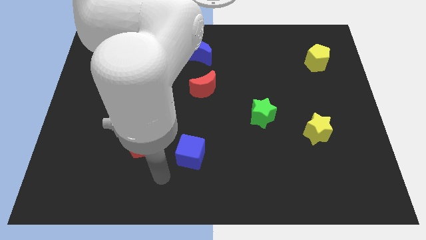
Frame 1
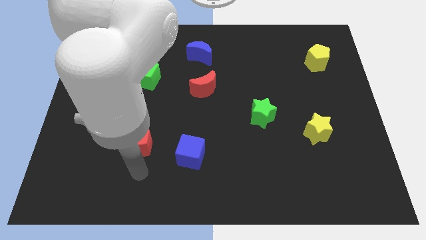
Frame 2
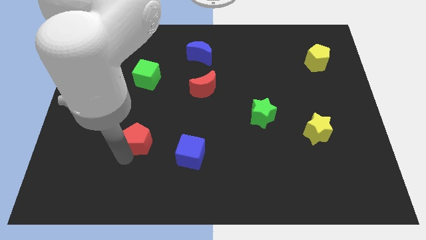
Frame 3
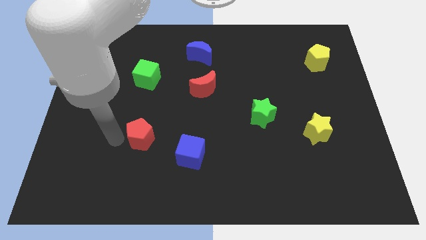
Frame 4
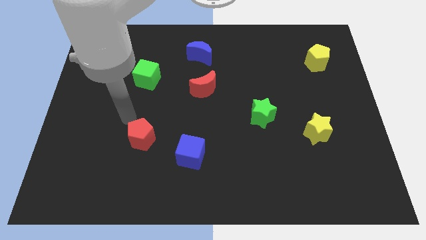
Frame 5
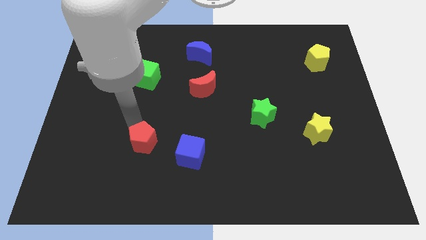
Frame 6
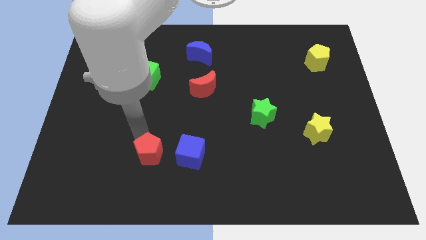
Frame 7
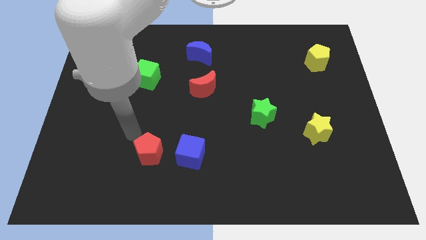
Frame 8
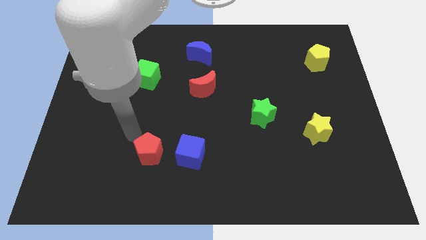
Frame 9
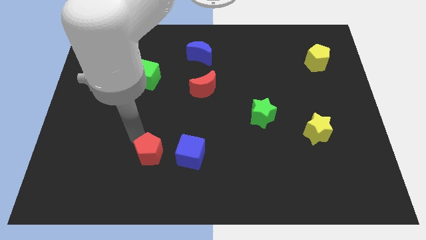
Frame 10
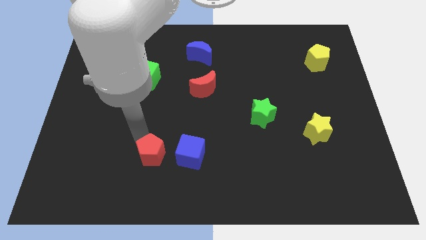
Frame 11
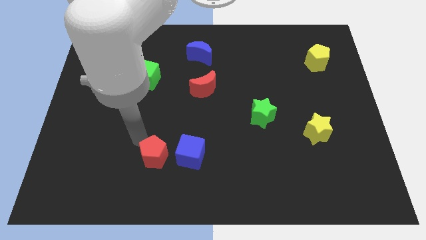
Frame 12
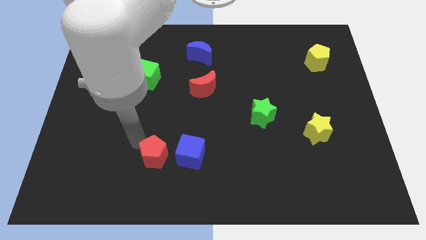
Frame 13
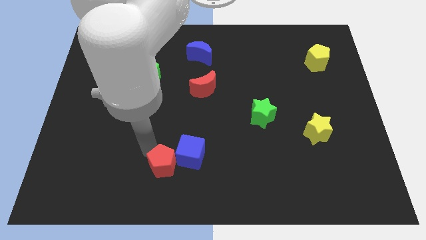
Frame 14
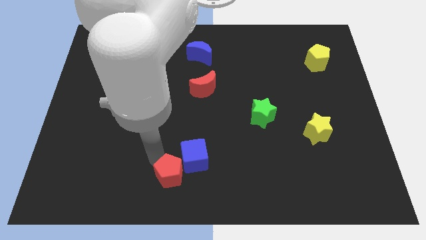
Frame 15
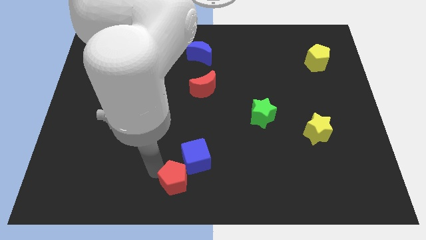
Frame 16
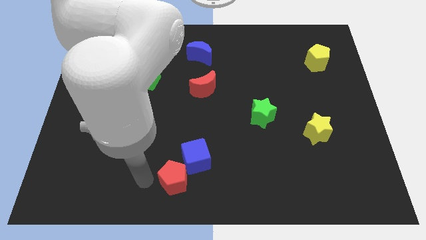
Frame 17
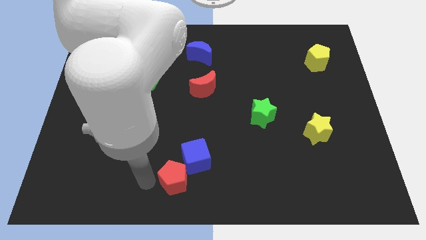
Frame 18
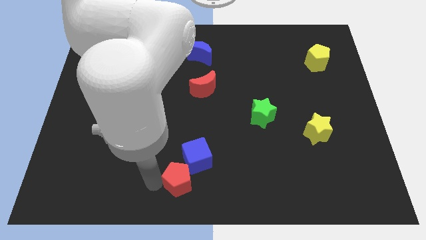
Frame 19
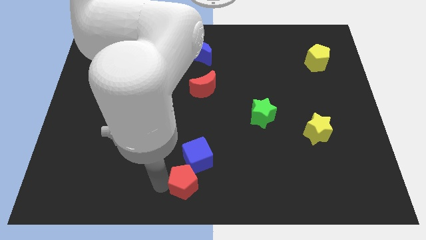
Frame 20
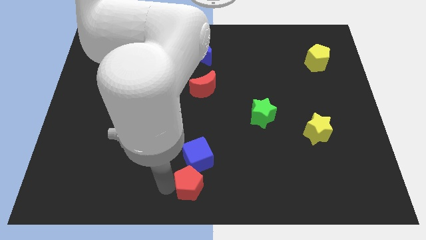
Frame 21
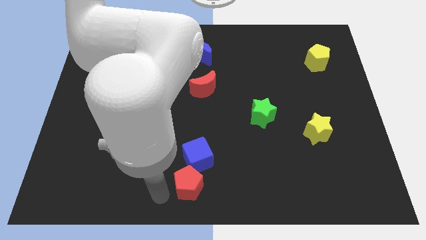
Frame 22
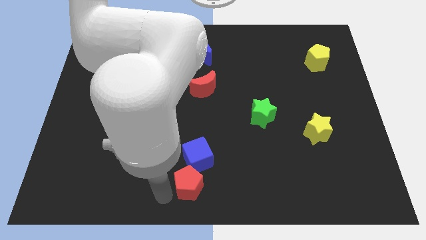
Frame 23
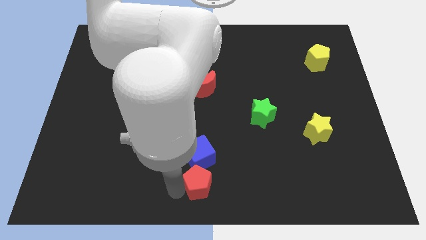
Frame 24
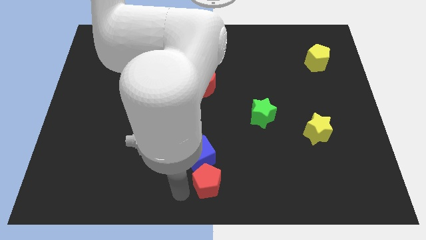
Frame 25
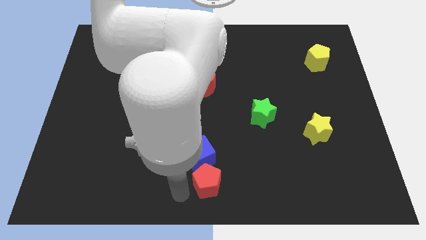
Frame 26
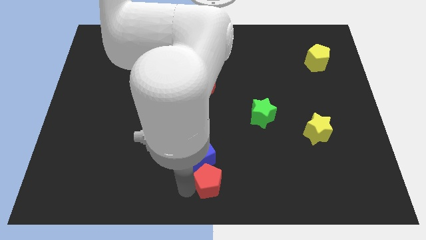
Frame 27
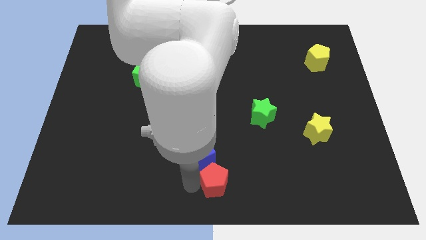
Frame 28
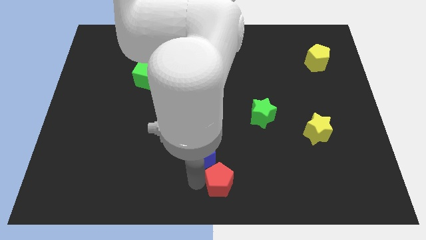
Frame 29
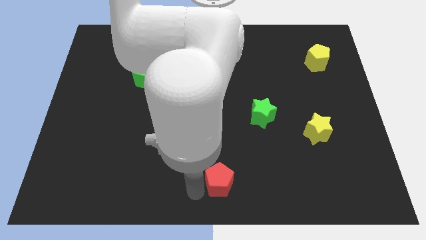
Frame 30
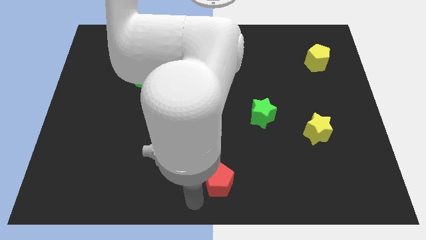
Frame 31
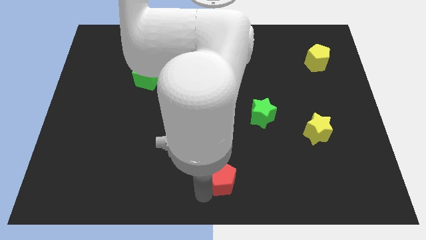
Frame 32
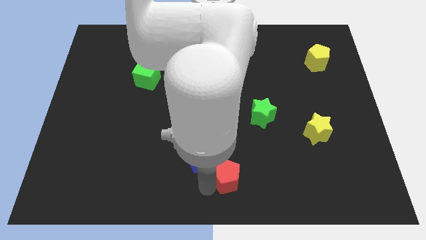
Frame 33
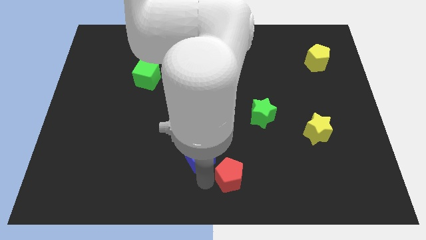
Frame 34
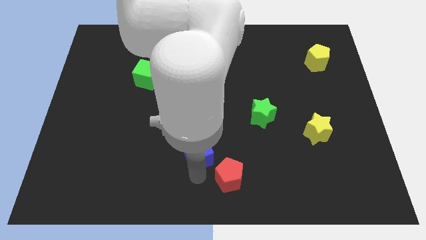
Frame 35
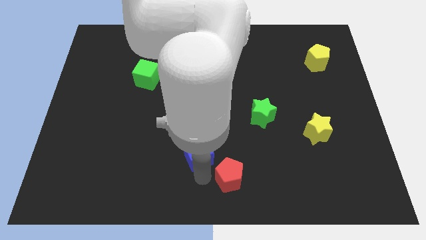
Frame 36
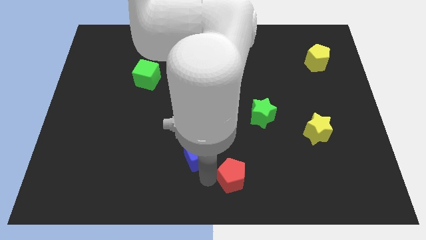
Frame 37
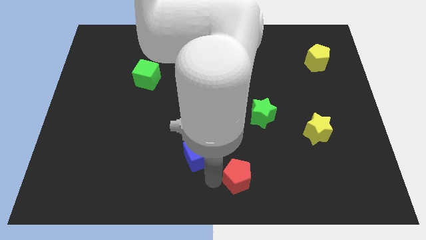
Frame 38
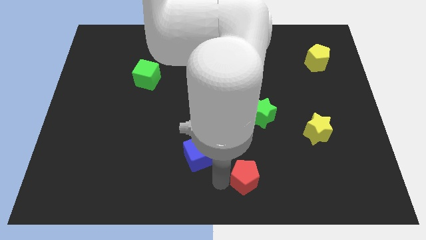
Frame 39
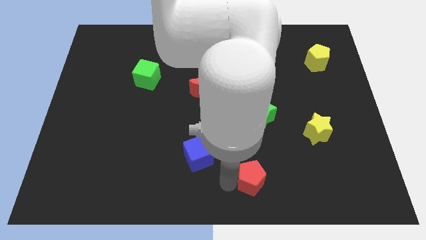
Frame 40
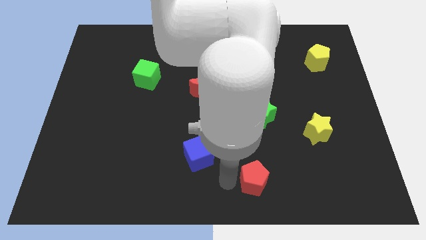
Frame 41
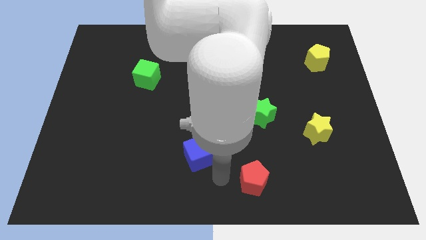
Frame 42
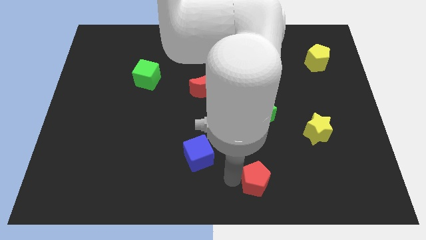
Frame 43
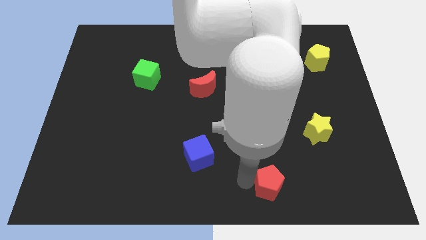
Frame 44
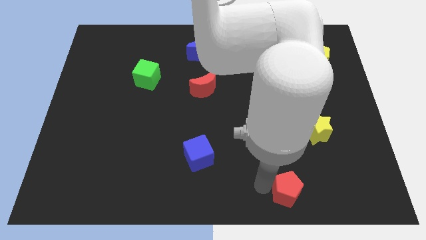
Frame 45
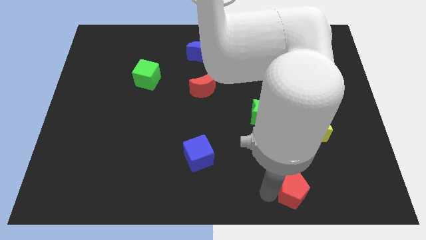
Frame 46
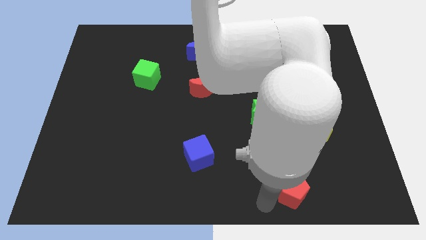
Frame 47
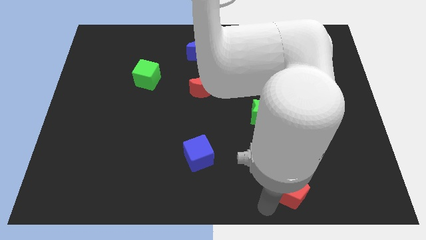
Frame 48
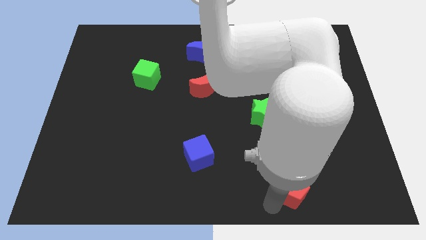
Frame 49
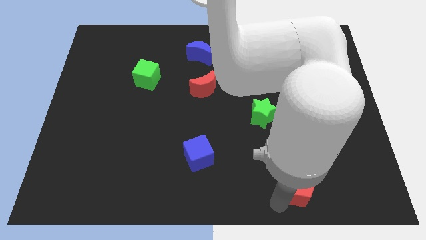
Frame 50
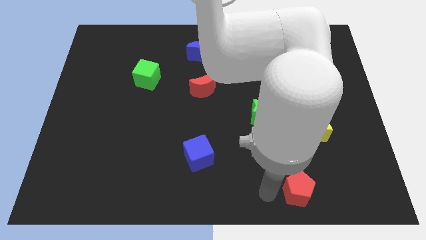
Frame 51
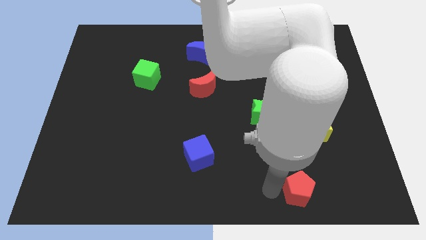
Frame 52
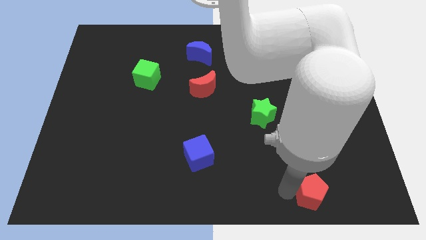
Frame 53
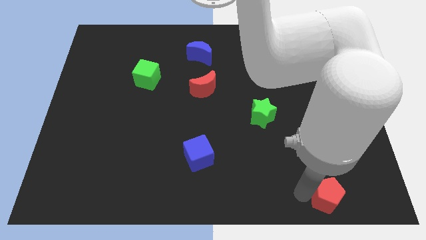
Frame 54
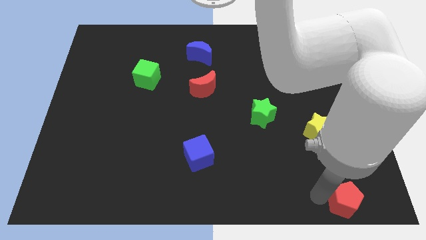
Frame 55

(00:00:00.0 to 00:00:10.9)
push the red pentagon to the bottom right corner

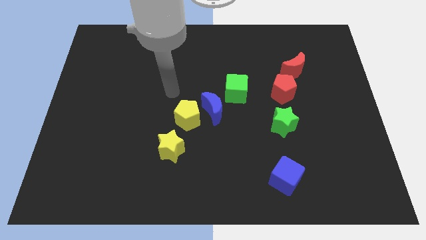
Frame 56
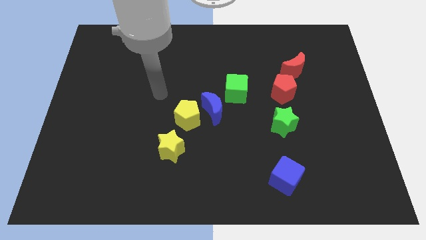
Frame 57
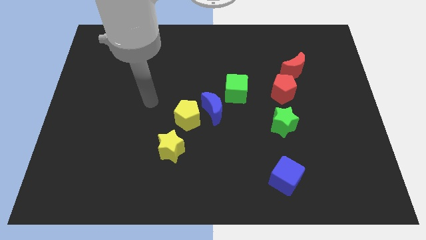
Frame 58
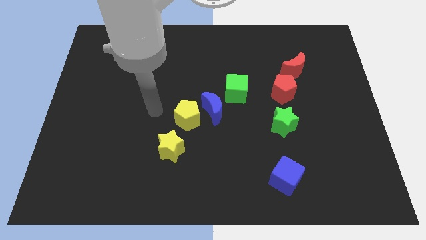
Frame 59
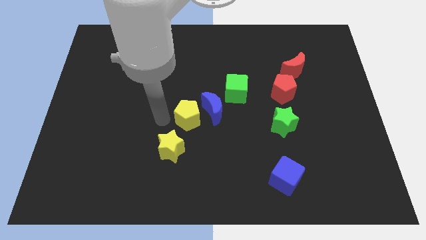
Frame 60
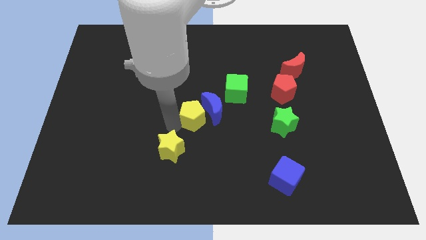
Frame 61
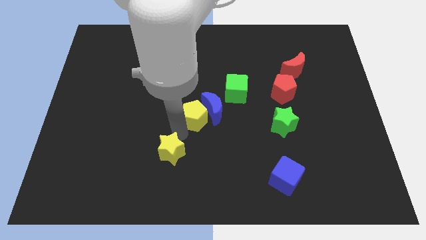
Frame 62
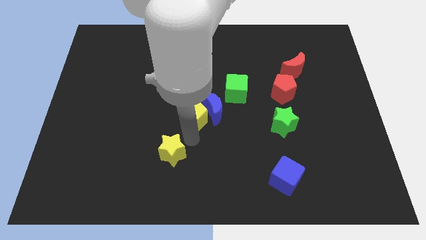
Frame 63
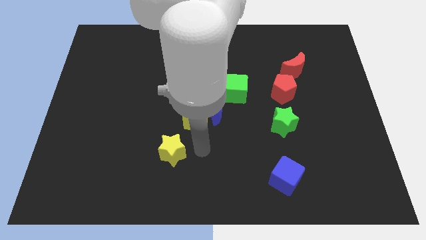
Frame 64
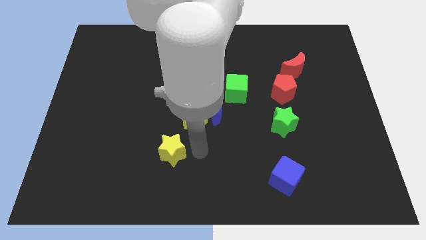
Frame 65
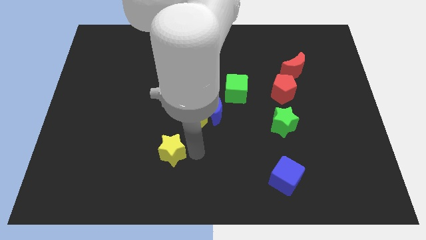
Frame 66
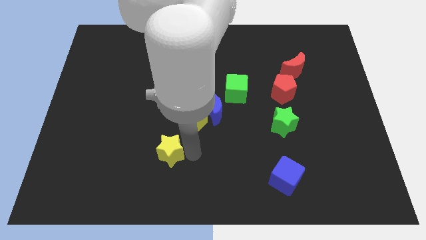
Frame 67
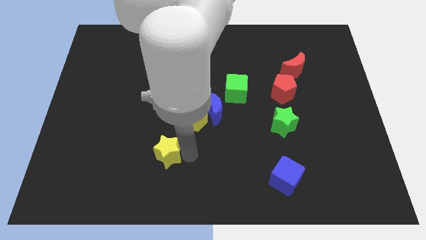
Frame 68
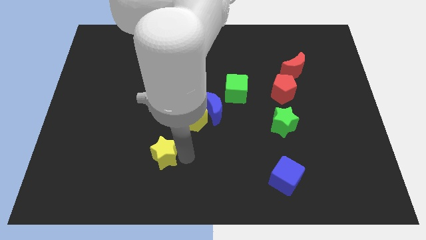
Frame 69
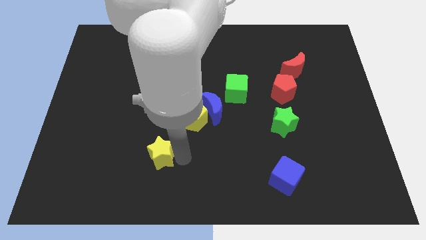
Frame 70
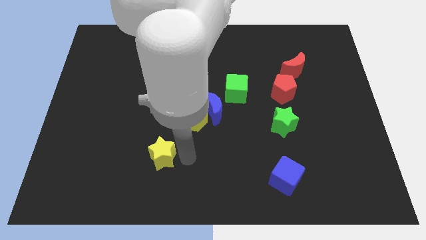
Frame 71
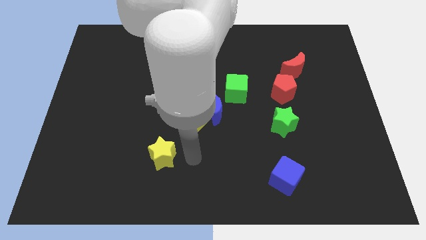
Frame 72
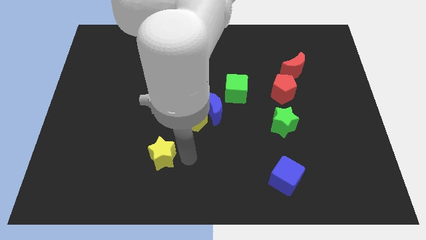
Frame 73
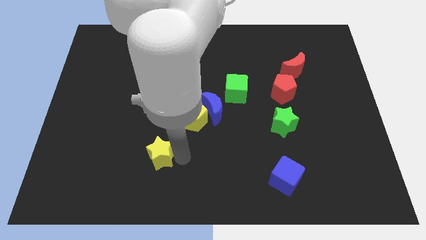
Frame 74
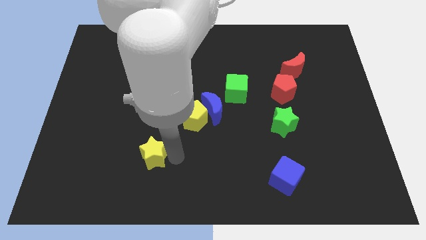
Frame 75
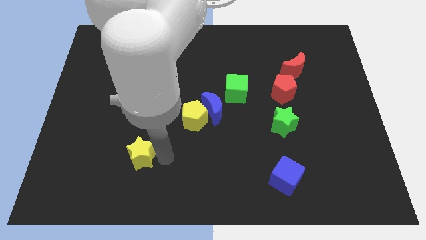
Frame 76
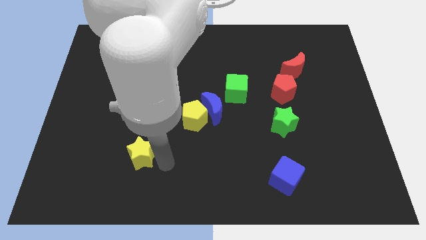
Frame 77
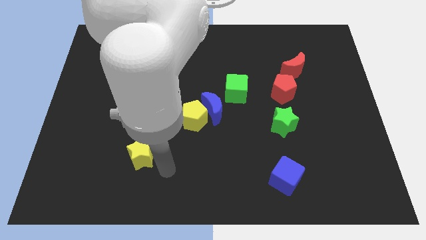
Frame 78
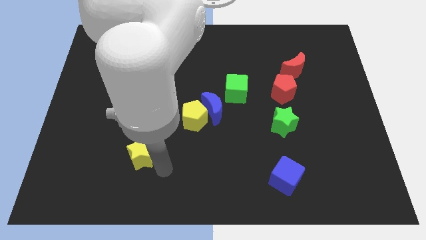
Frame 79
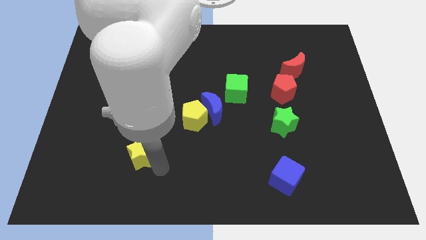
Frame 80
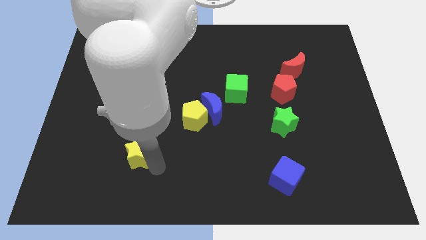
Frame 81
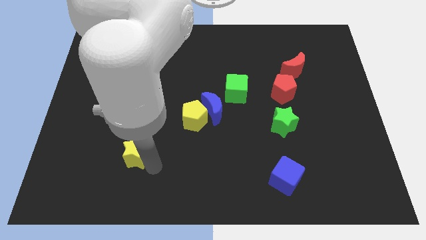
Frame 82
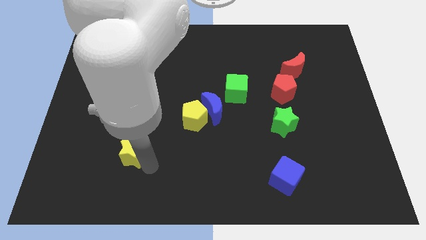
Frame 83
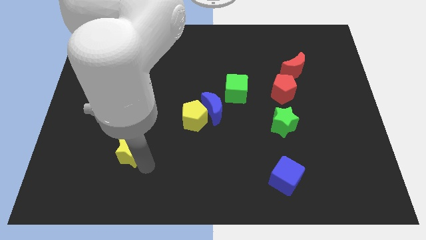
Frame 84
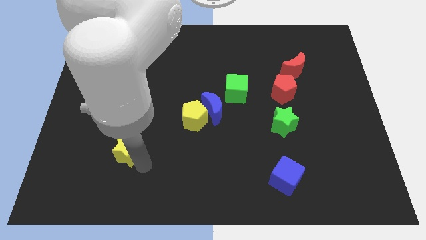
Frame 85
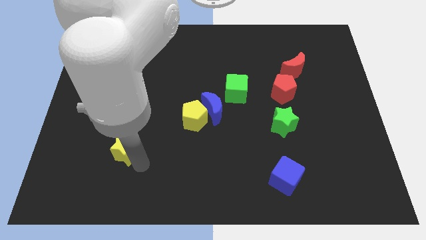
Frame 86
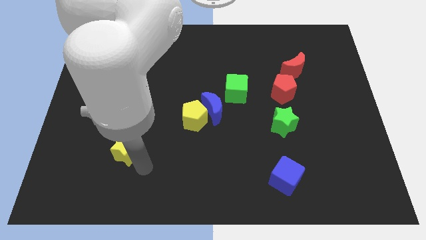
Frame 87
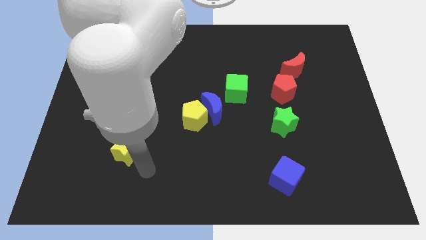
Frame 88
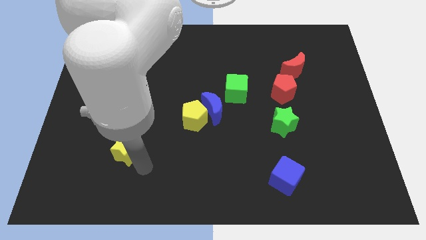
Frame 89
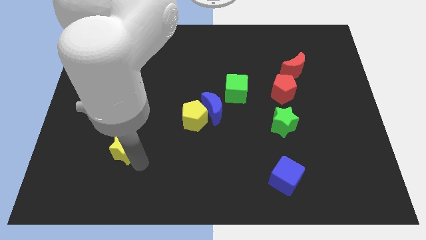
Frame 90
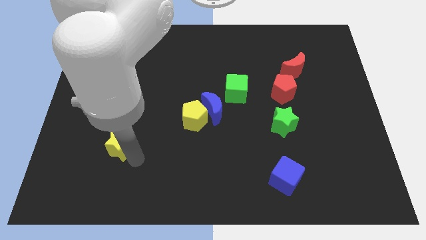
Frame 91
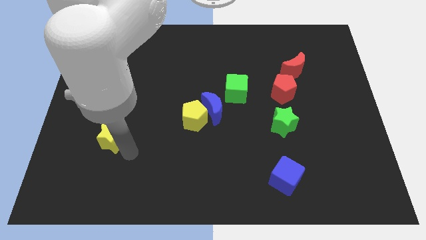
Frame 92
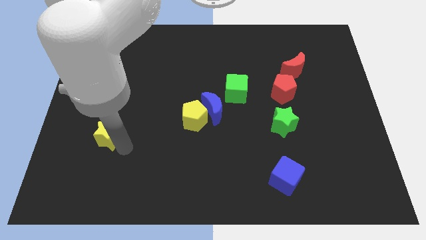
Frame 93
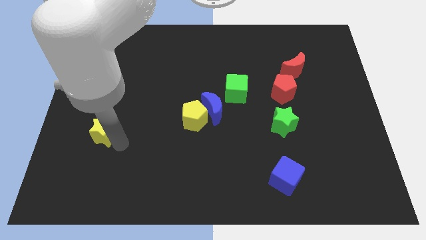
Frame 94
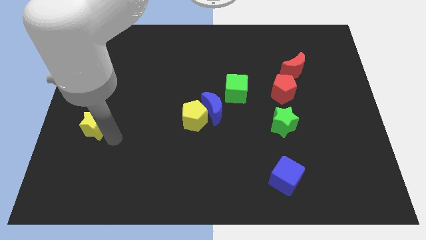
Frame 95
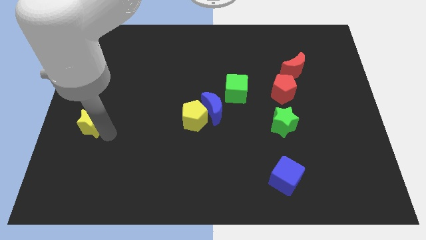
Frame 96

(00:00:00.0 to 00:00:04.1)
move the yellow star to the left side
